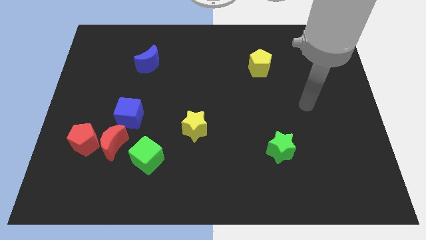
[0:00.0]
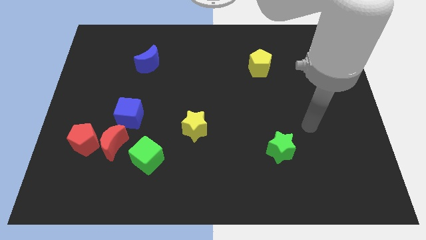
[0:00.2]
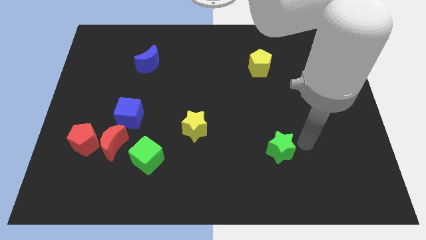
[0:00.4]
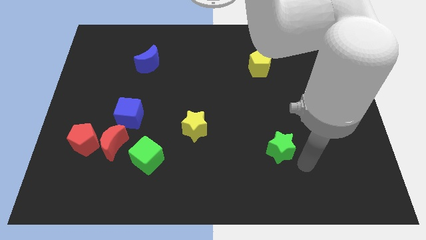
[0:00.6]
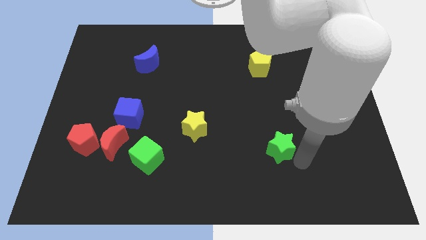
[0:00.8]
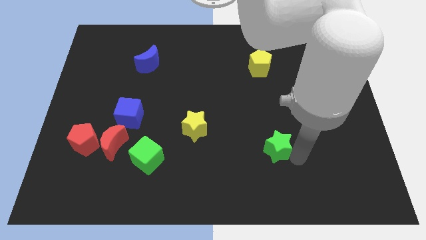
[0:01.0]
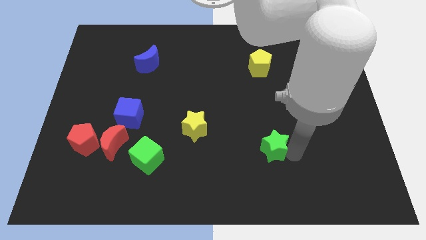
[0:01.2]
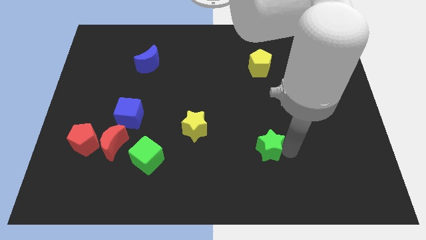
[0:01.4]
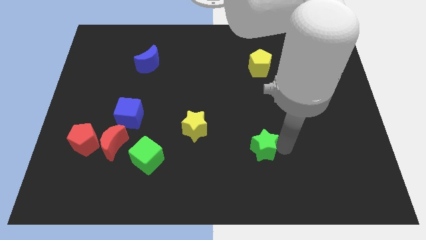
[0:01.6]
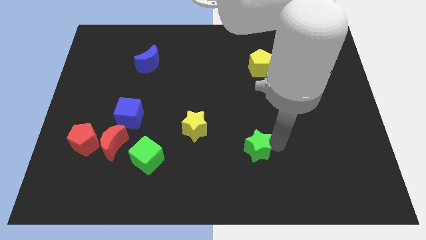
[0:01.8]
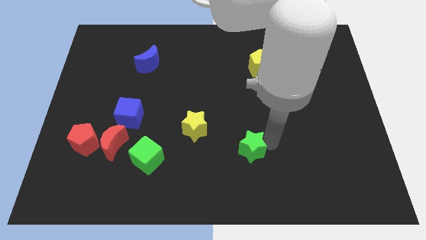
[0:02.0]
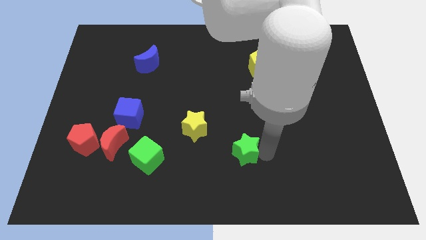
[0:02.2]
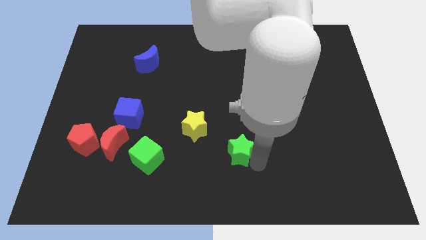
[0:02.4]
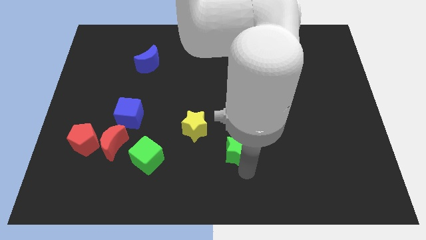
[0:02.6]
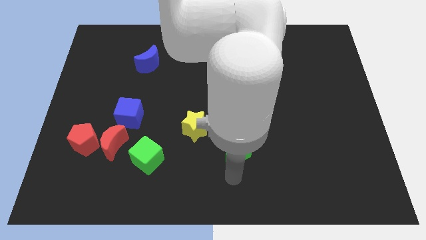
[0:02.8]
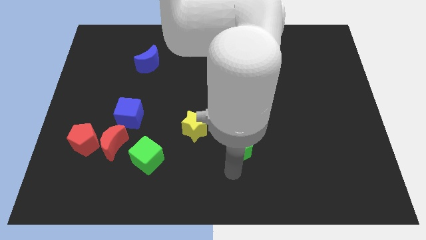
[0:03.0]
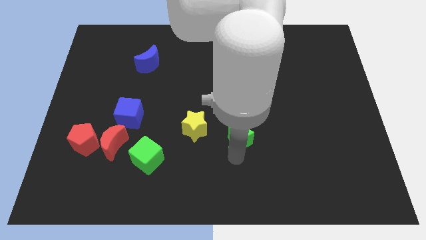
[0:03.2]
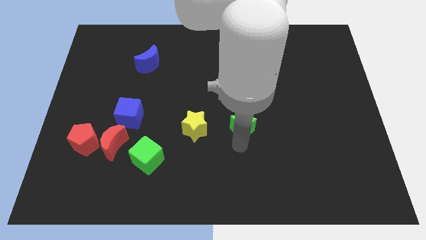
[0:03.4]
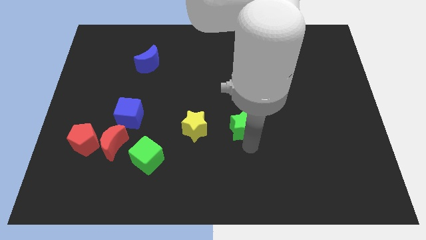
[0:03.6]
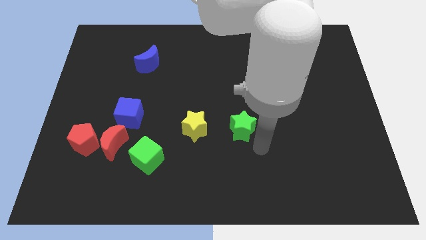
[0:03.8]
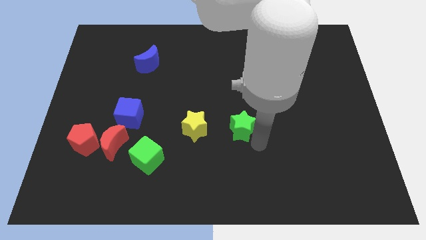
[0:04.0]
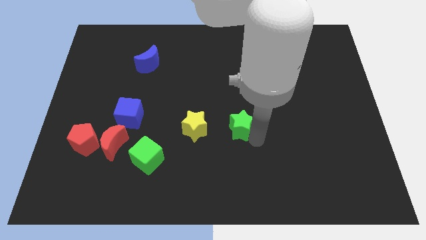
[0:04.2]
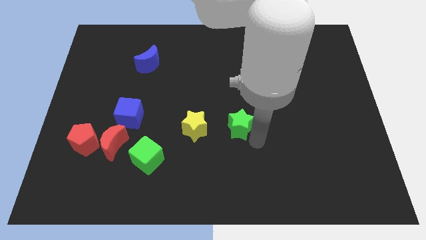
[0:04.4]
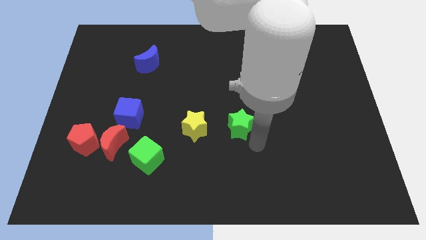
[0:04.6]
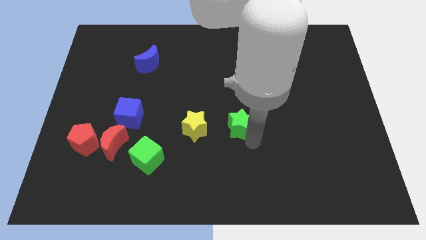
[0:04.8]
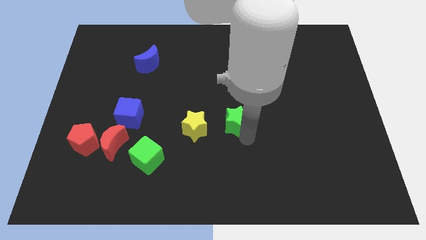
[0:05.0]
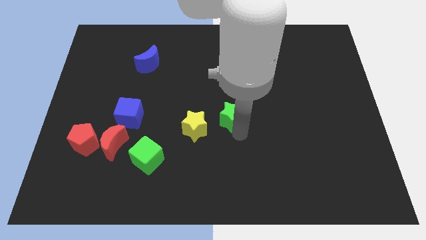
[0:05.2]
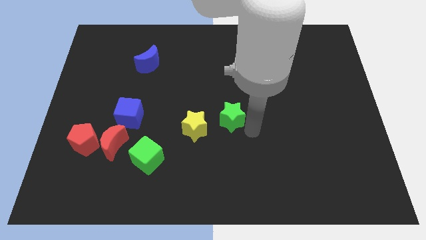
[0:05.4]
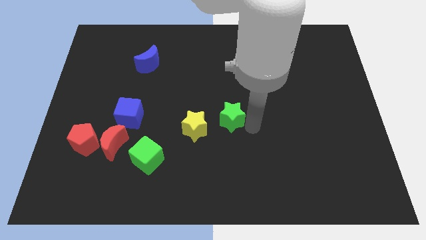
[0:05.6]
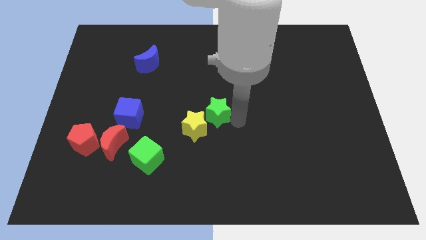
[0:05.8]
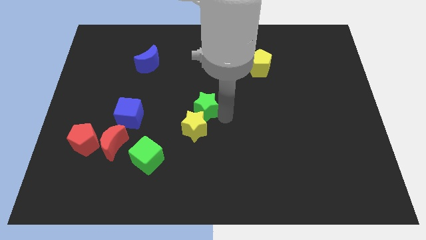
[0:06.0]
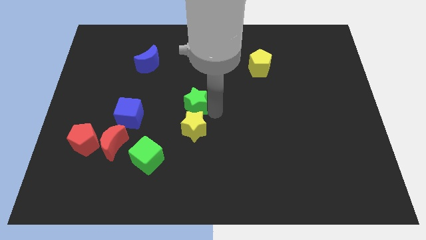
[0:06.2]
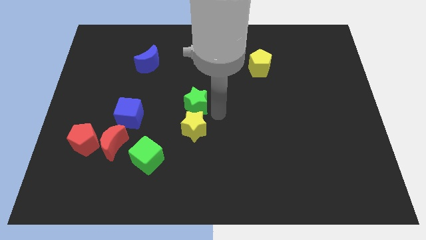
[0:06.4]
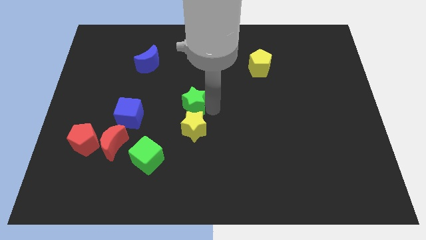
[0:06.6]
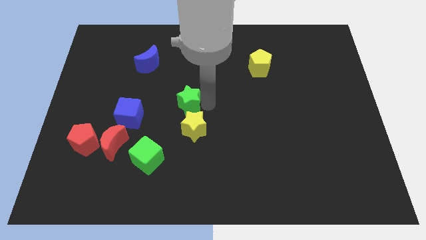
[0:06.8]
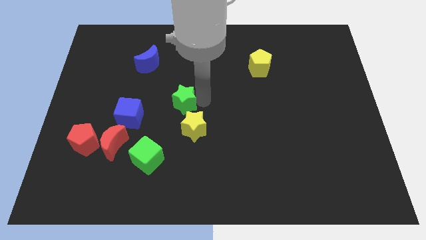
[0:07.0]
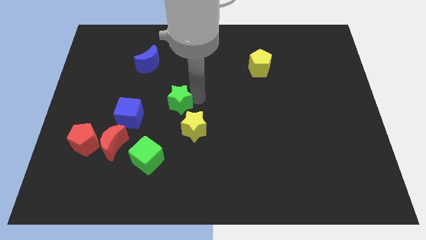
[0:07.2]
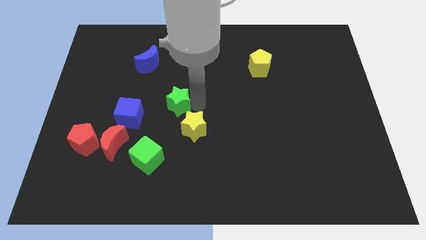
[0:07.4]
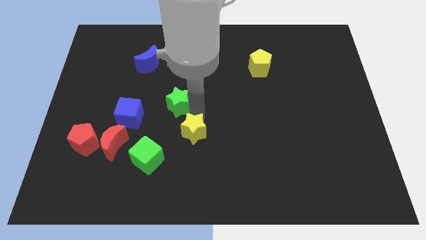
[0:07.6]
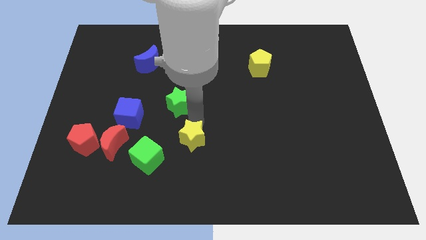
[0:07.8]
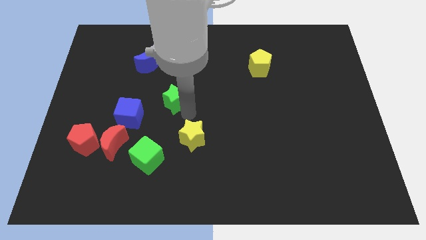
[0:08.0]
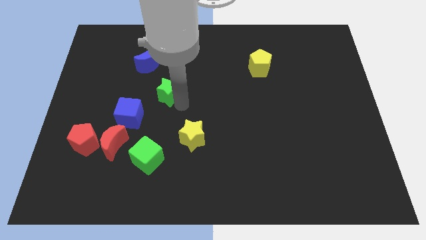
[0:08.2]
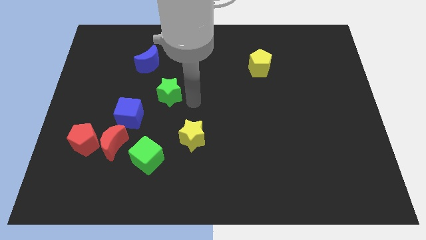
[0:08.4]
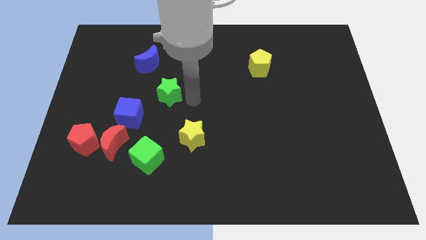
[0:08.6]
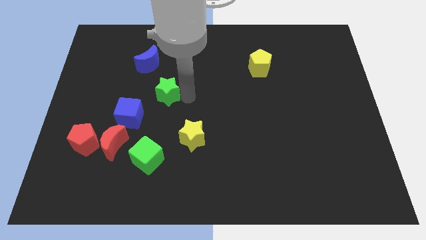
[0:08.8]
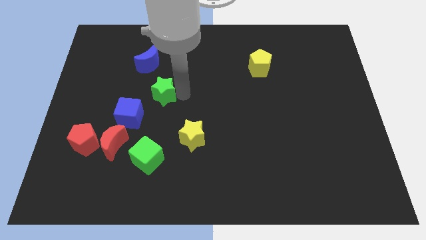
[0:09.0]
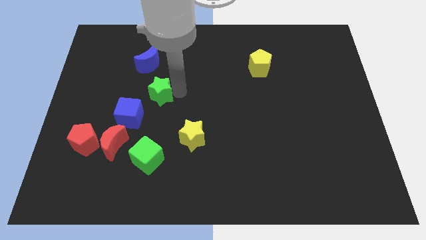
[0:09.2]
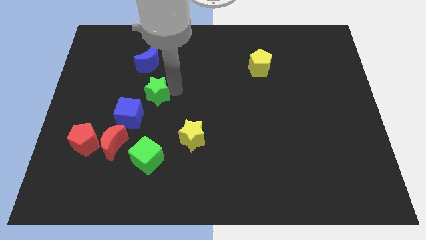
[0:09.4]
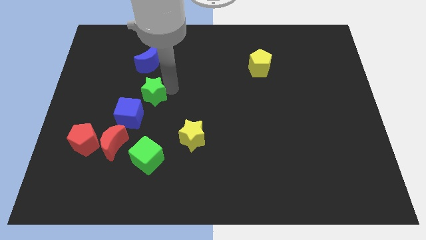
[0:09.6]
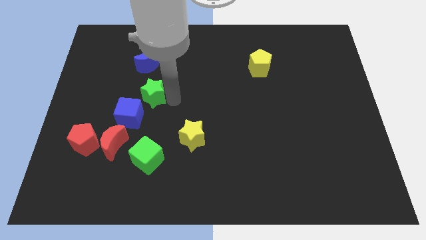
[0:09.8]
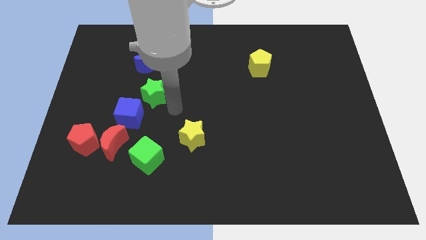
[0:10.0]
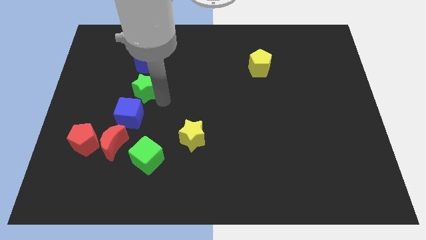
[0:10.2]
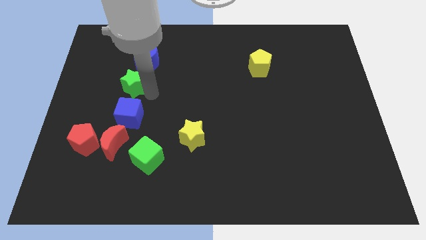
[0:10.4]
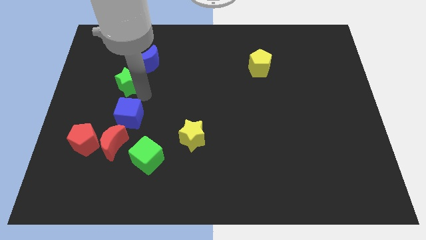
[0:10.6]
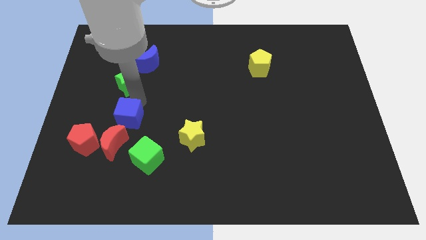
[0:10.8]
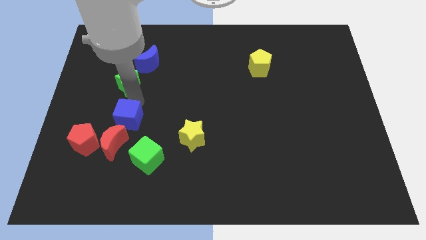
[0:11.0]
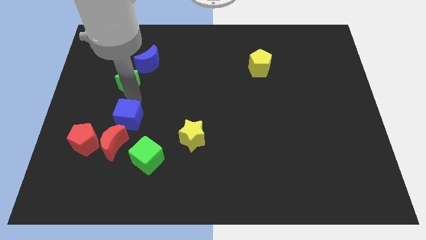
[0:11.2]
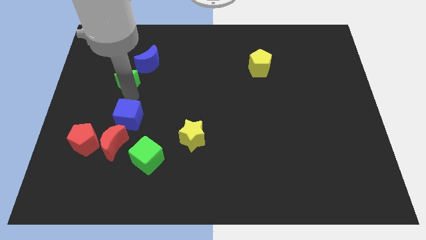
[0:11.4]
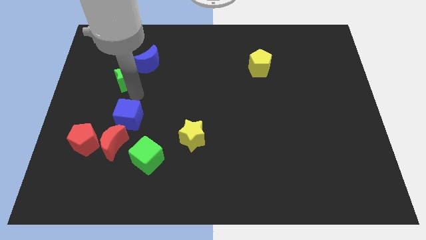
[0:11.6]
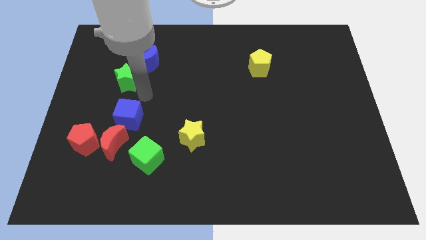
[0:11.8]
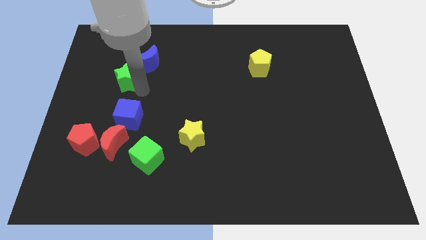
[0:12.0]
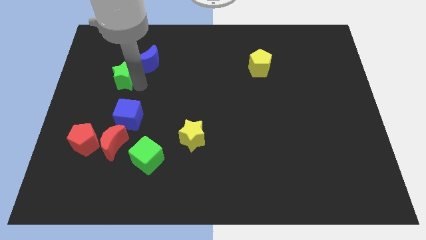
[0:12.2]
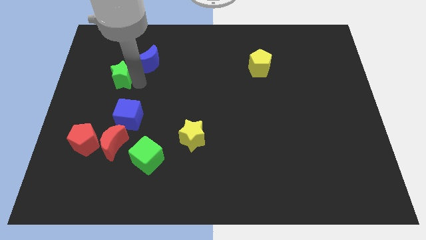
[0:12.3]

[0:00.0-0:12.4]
put the green star to the left side of the blue moon

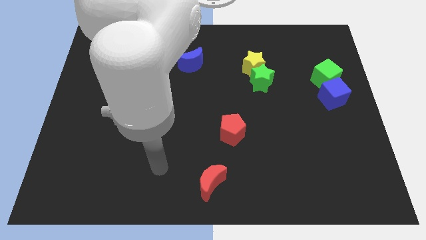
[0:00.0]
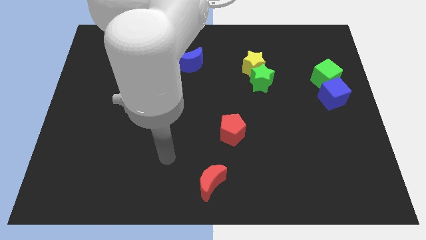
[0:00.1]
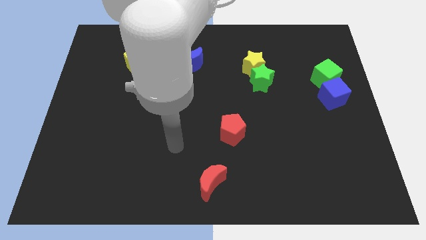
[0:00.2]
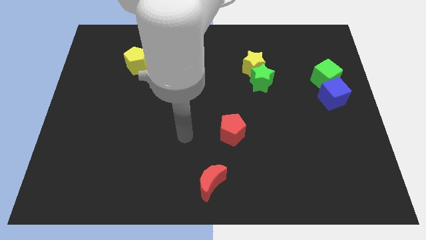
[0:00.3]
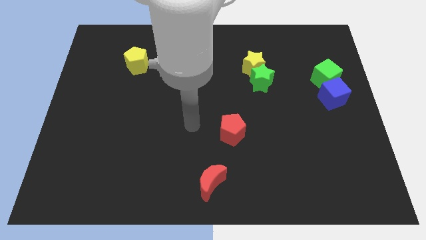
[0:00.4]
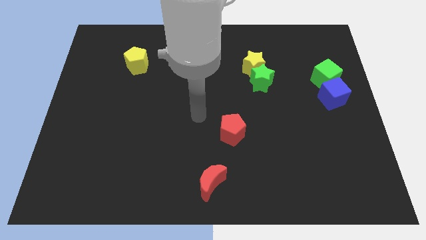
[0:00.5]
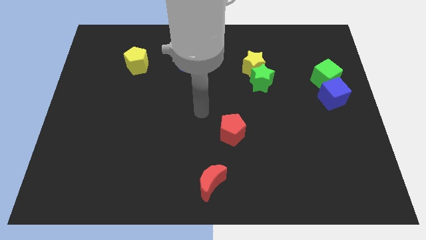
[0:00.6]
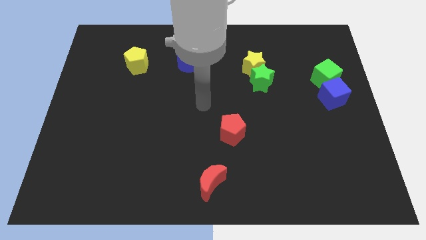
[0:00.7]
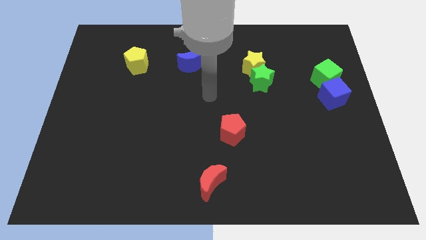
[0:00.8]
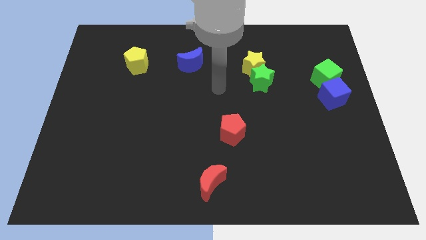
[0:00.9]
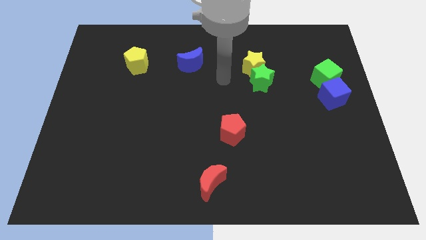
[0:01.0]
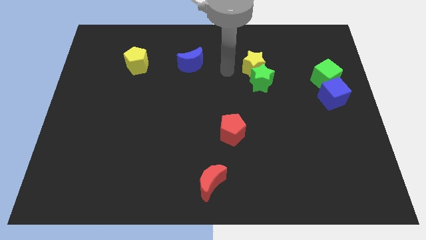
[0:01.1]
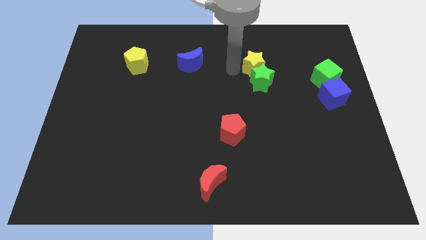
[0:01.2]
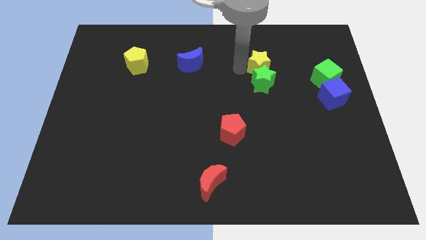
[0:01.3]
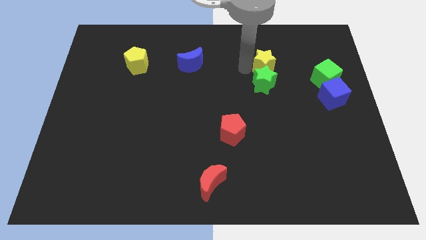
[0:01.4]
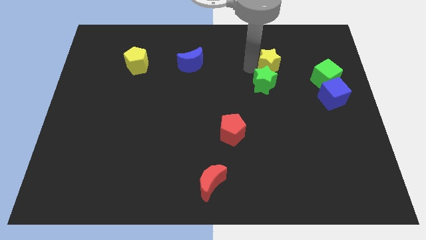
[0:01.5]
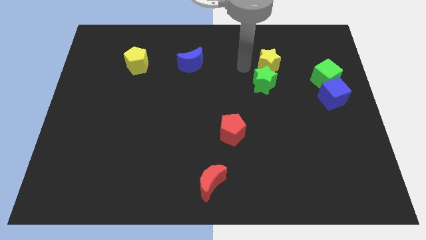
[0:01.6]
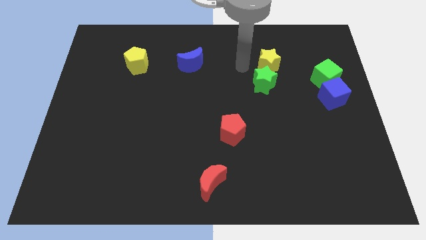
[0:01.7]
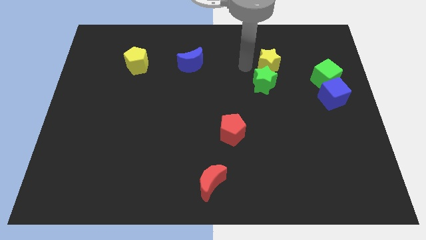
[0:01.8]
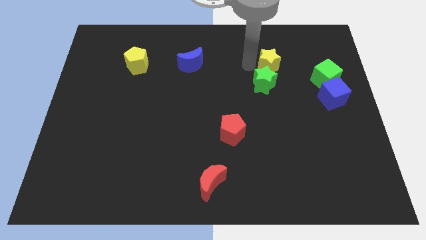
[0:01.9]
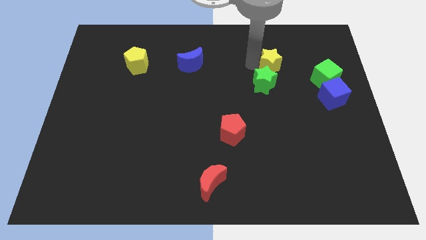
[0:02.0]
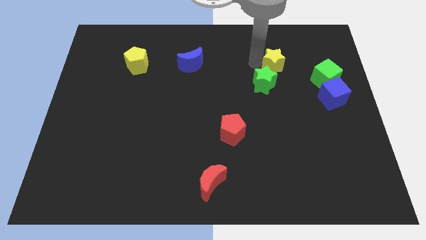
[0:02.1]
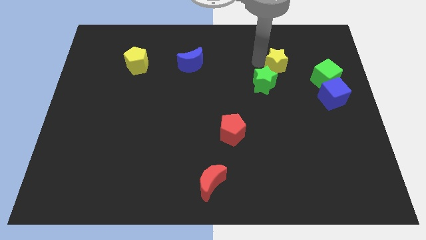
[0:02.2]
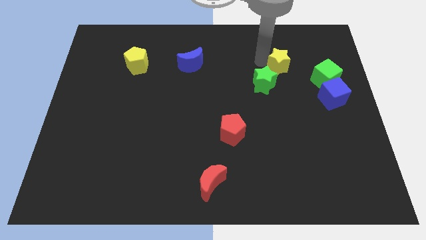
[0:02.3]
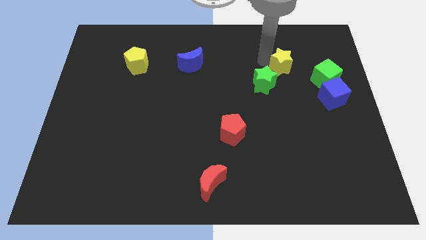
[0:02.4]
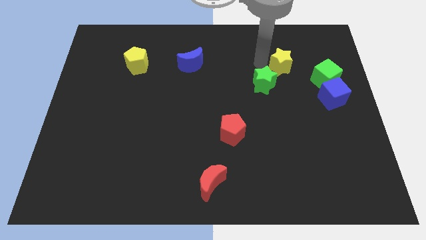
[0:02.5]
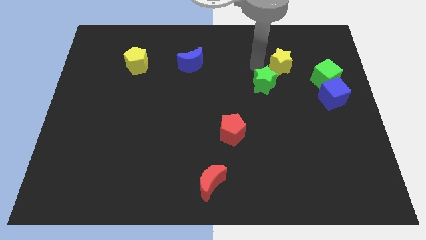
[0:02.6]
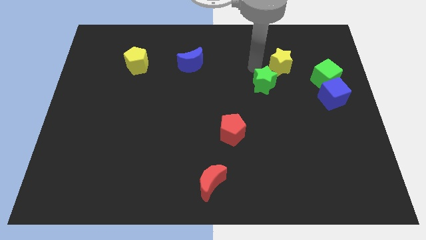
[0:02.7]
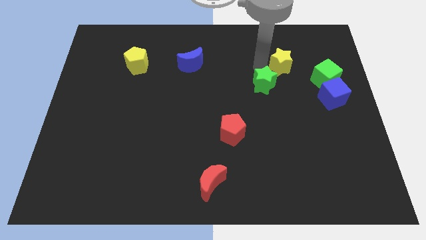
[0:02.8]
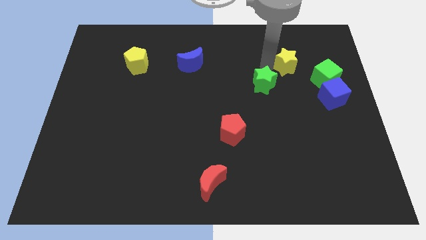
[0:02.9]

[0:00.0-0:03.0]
slide the yellow star to the top left side of the green cube
